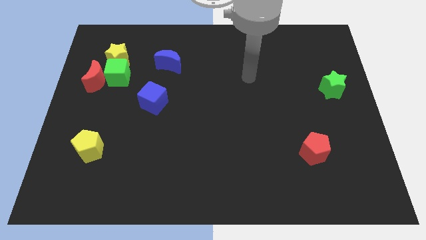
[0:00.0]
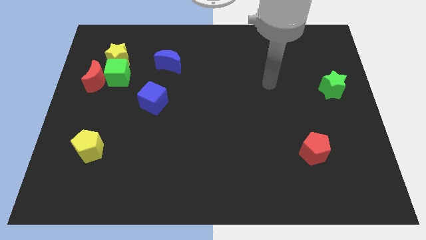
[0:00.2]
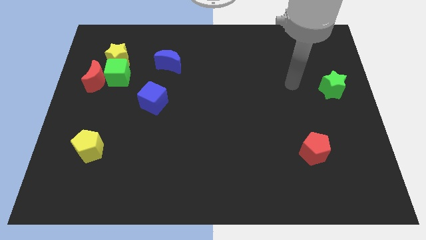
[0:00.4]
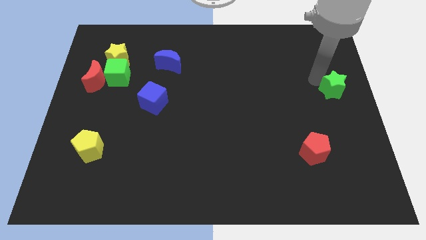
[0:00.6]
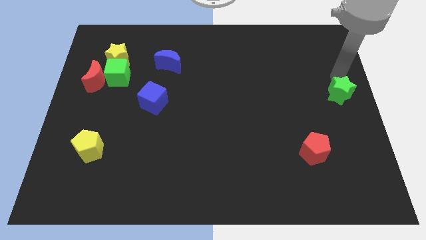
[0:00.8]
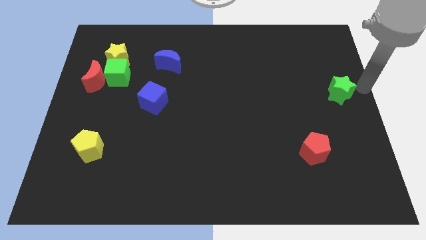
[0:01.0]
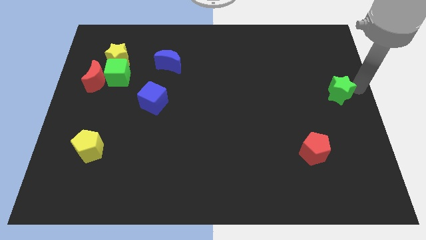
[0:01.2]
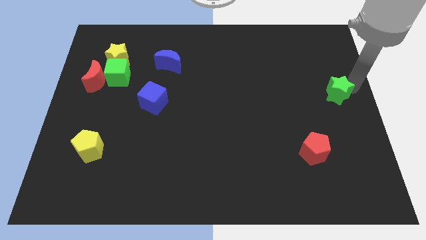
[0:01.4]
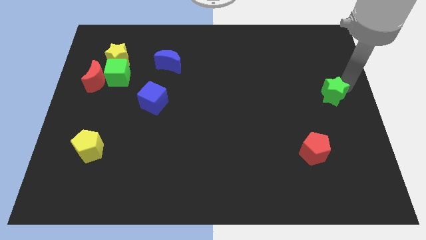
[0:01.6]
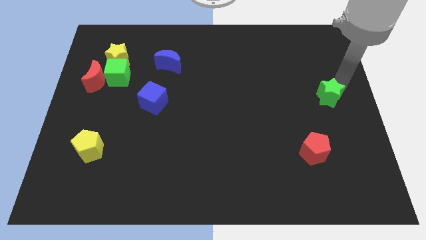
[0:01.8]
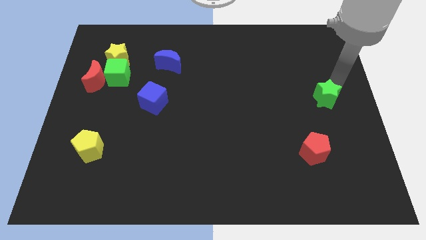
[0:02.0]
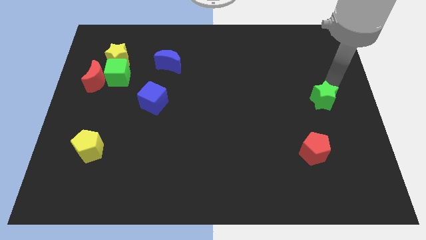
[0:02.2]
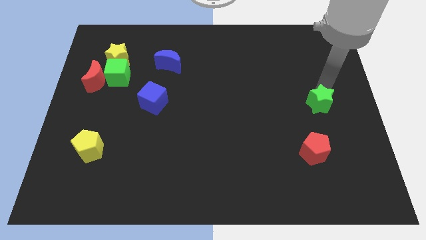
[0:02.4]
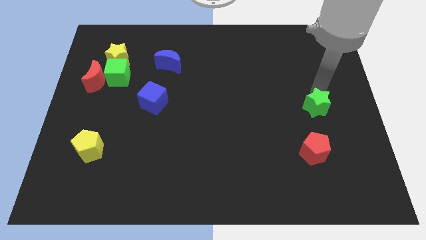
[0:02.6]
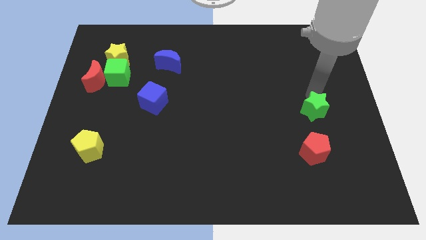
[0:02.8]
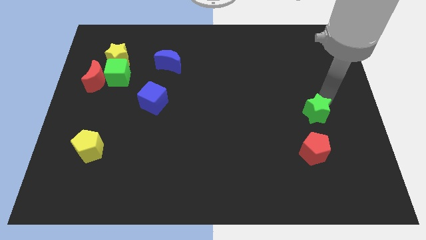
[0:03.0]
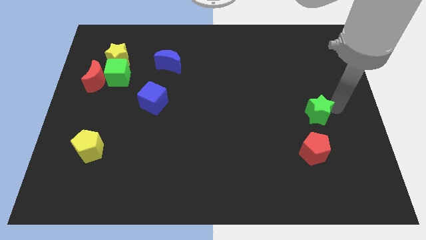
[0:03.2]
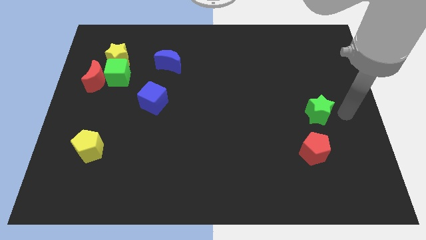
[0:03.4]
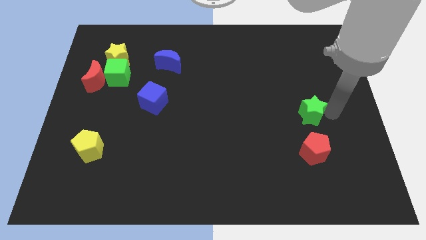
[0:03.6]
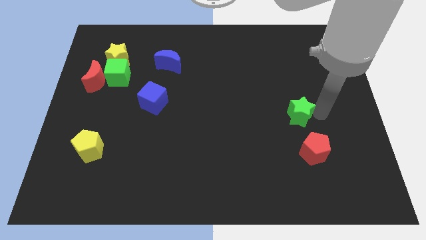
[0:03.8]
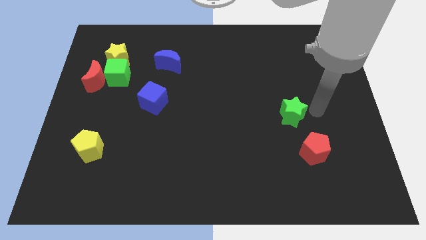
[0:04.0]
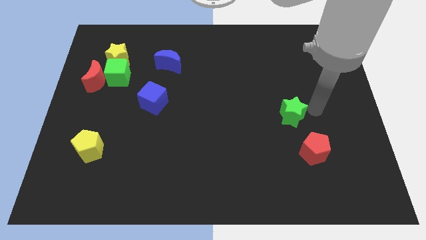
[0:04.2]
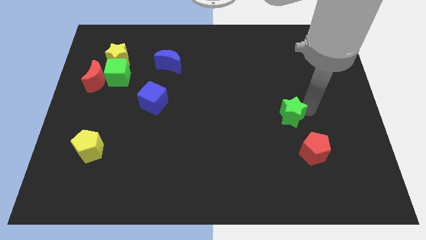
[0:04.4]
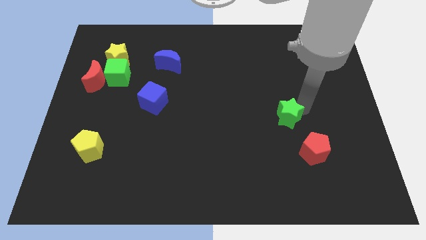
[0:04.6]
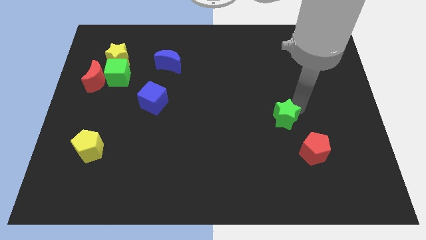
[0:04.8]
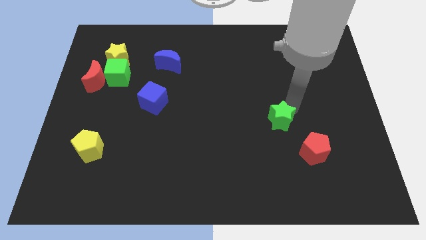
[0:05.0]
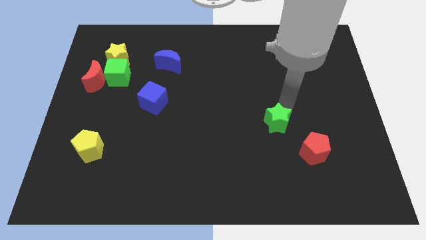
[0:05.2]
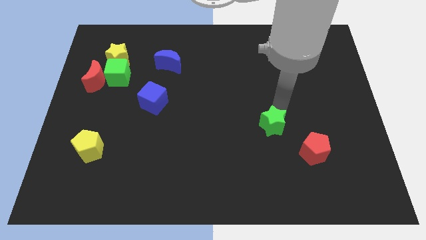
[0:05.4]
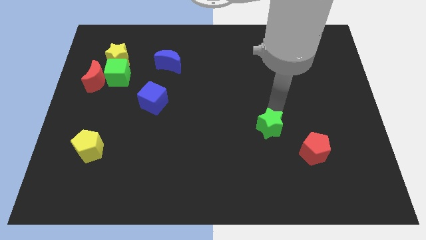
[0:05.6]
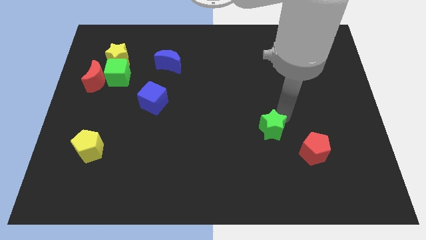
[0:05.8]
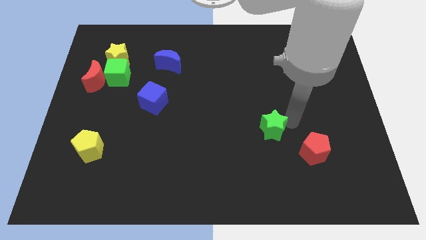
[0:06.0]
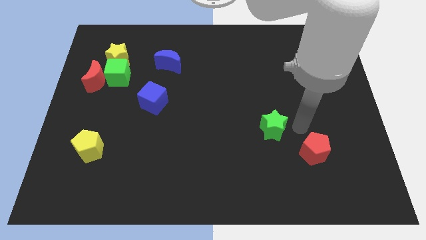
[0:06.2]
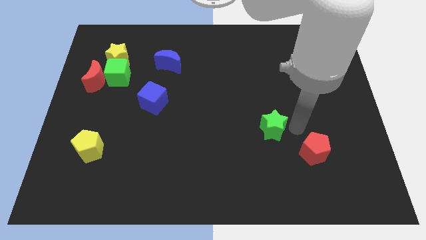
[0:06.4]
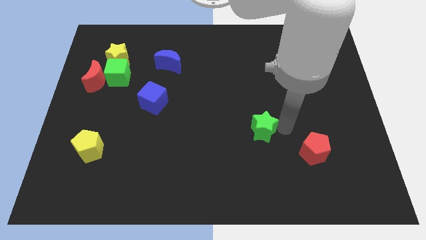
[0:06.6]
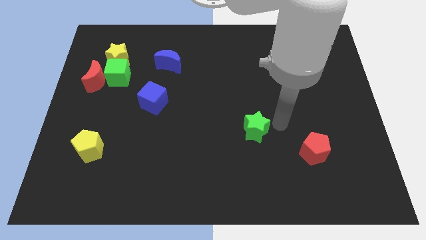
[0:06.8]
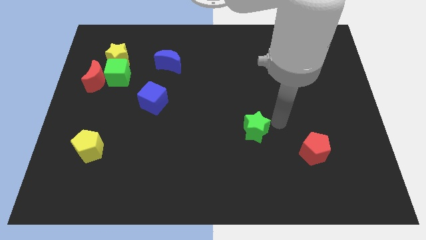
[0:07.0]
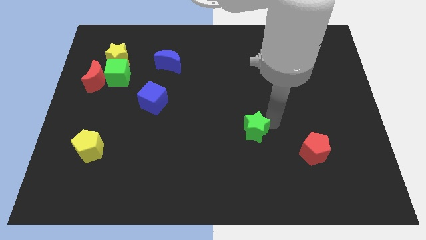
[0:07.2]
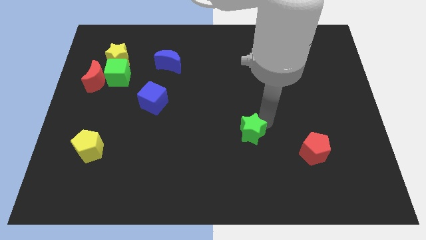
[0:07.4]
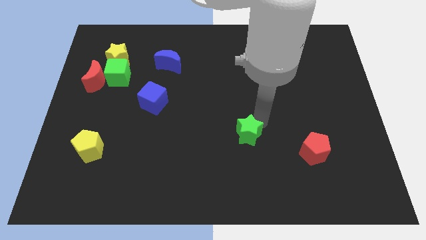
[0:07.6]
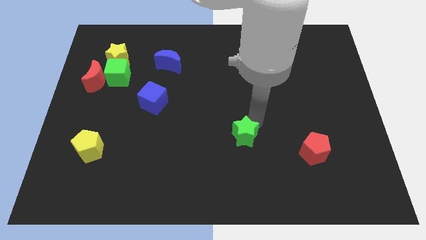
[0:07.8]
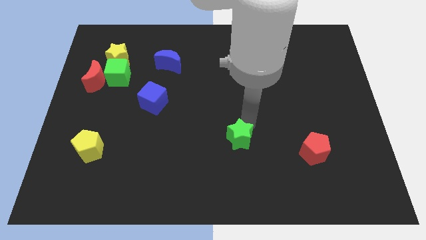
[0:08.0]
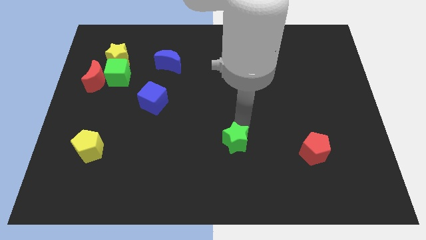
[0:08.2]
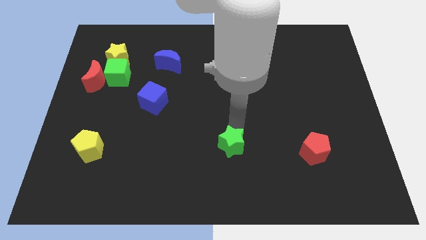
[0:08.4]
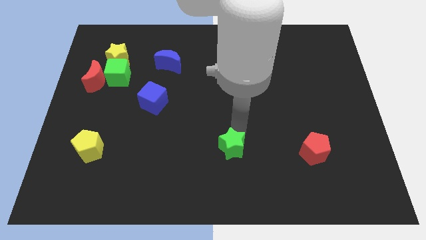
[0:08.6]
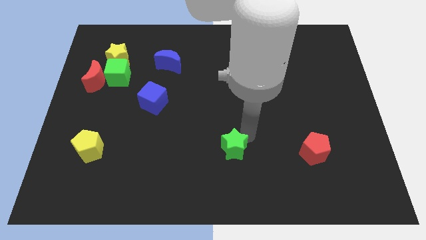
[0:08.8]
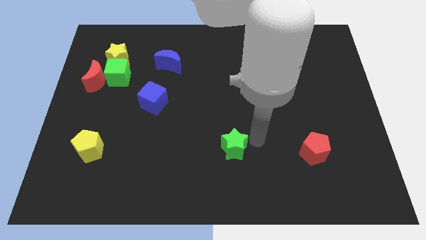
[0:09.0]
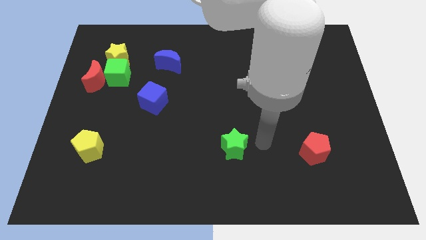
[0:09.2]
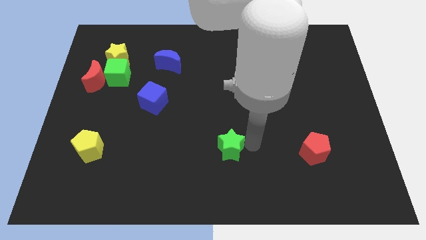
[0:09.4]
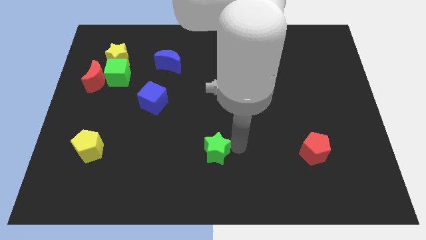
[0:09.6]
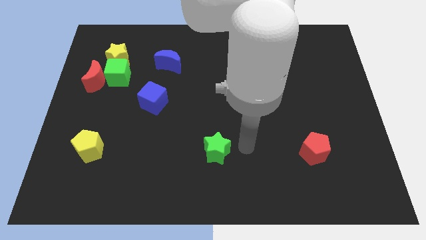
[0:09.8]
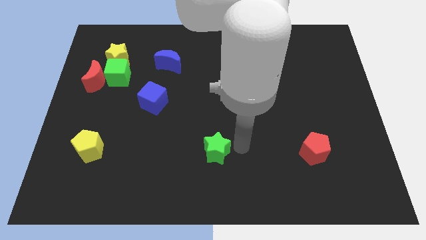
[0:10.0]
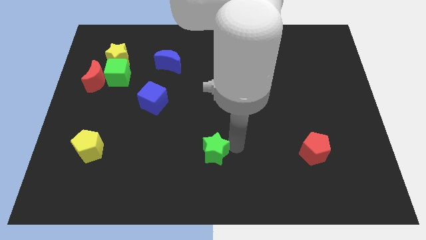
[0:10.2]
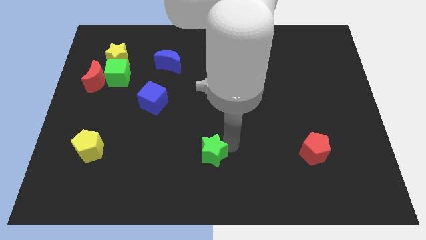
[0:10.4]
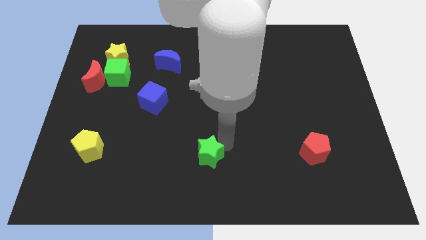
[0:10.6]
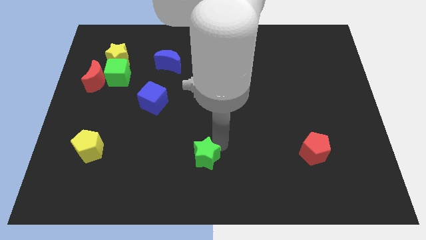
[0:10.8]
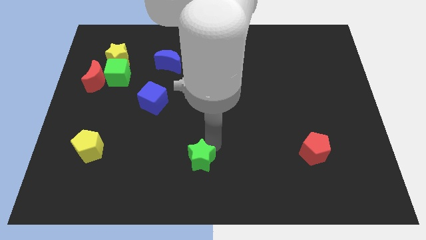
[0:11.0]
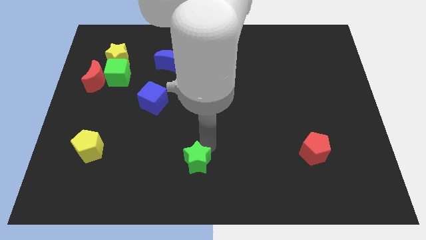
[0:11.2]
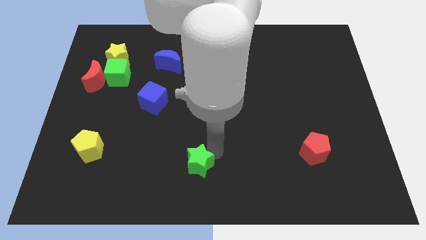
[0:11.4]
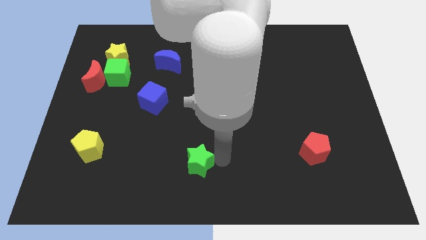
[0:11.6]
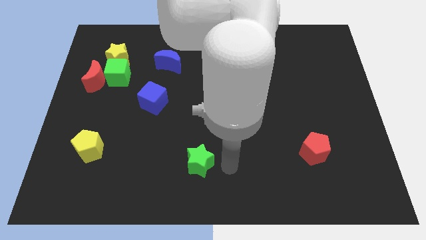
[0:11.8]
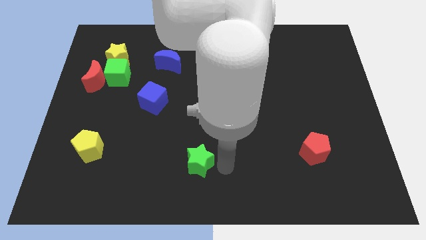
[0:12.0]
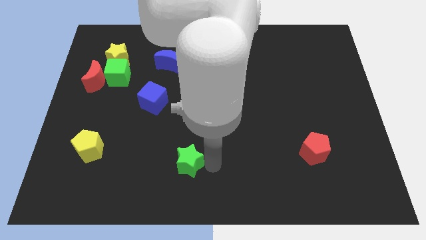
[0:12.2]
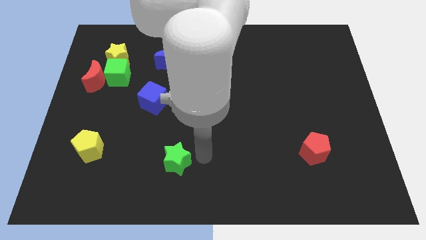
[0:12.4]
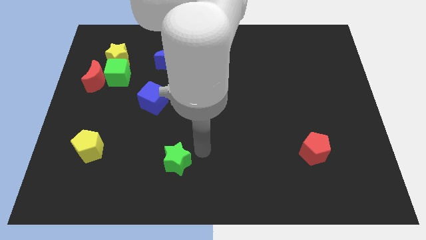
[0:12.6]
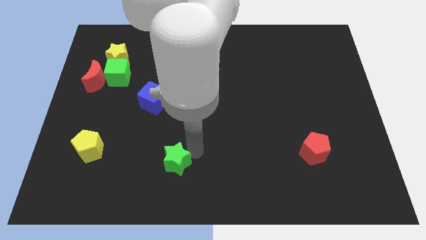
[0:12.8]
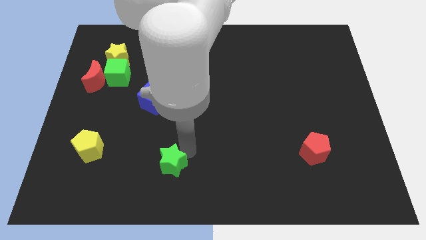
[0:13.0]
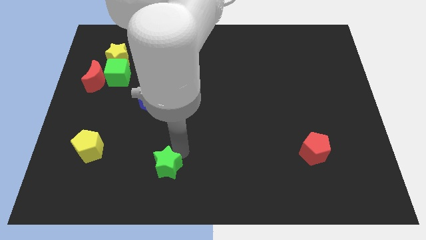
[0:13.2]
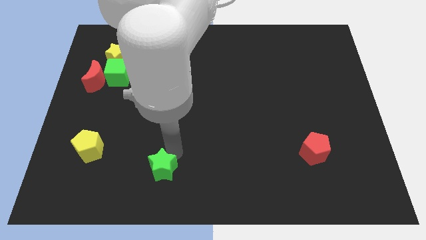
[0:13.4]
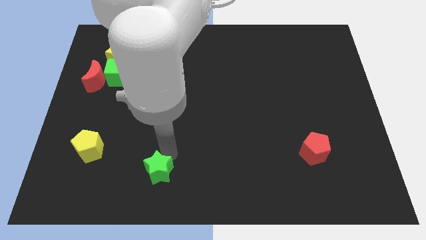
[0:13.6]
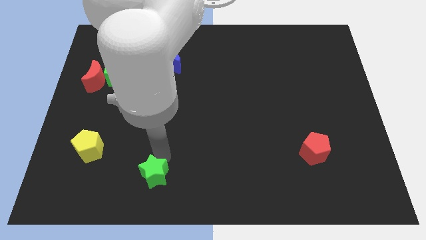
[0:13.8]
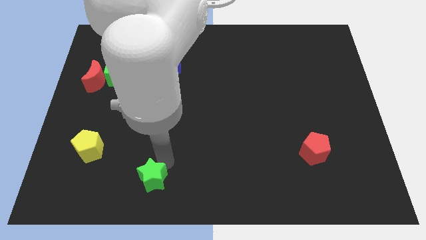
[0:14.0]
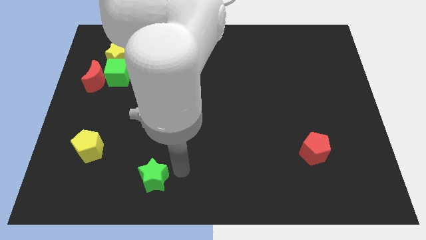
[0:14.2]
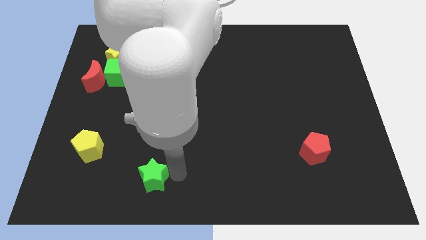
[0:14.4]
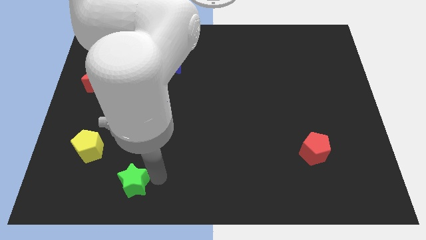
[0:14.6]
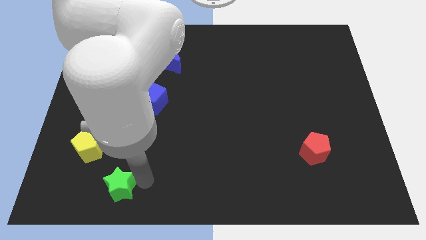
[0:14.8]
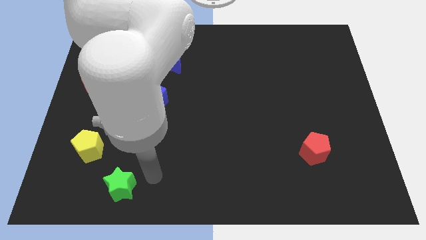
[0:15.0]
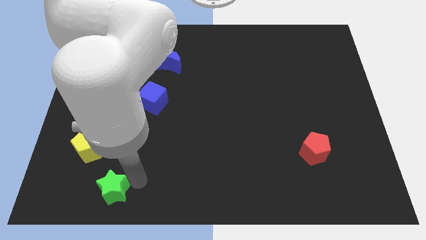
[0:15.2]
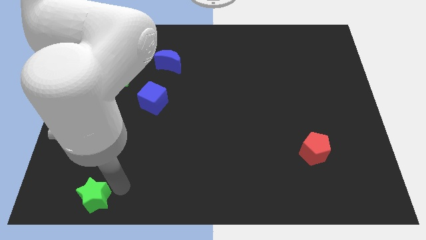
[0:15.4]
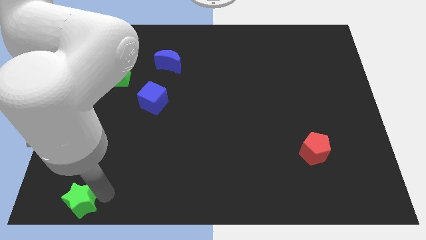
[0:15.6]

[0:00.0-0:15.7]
slide the green star to the bottom left
